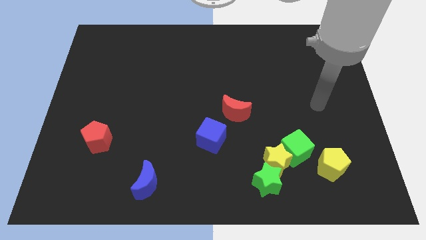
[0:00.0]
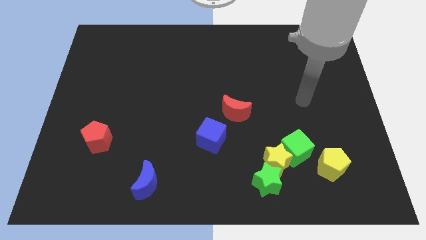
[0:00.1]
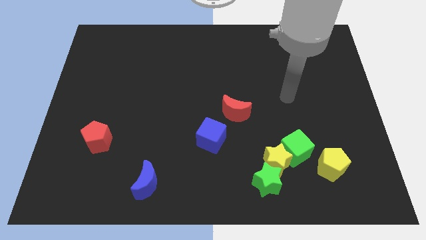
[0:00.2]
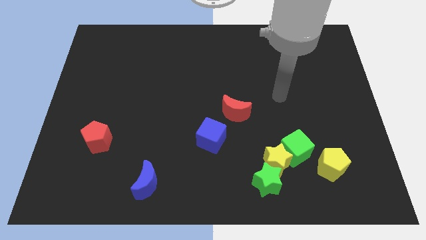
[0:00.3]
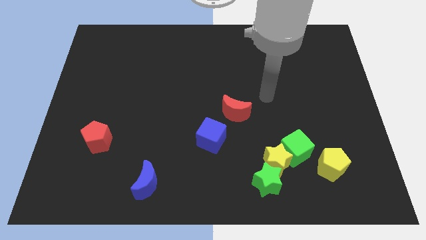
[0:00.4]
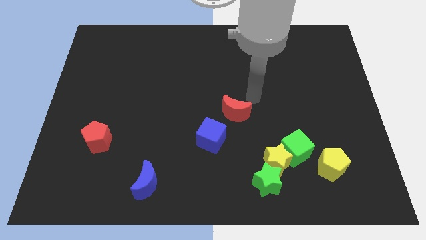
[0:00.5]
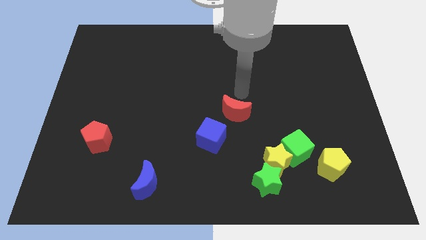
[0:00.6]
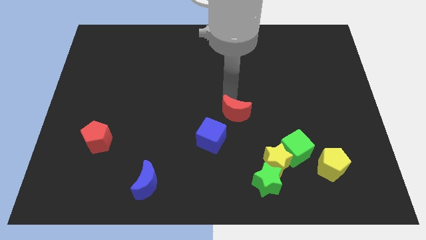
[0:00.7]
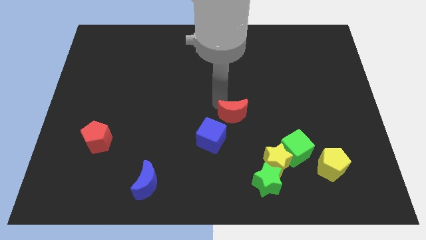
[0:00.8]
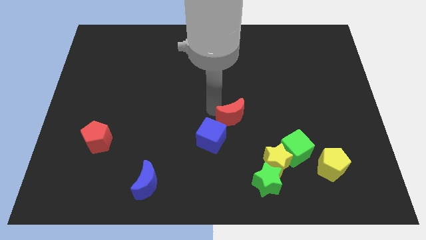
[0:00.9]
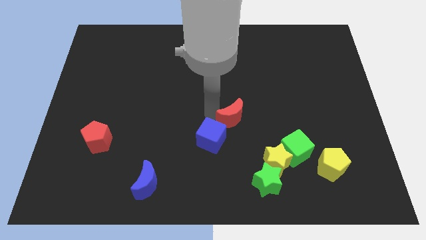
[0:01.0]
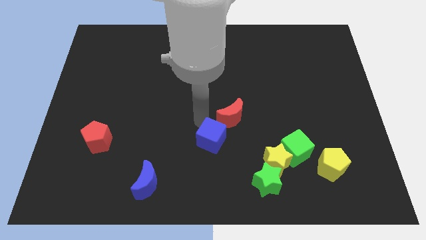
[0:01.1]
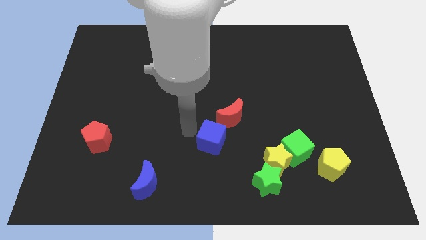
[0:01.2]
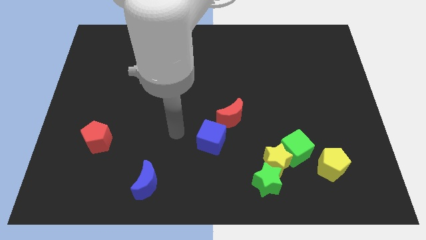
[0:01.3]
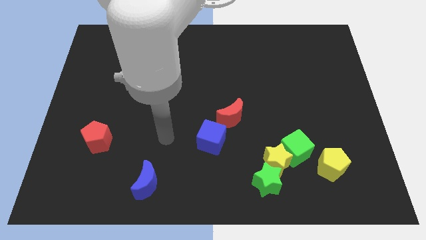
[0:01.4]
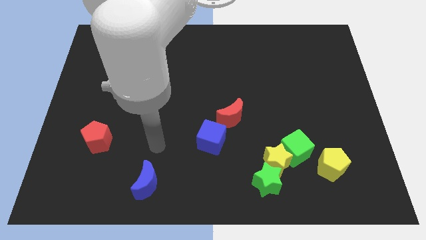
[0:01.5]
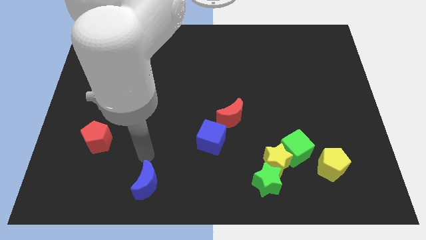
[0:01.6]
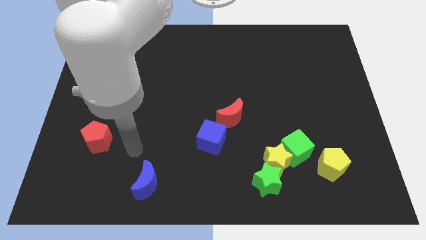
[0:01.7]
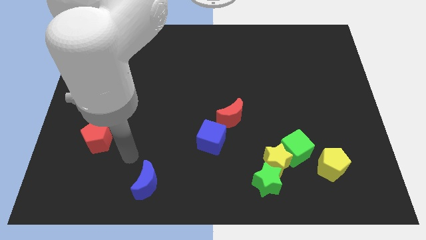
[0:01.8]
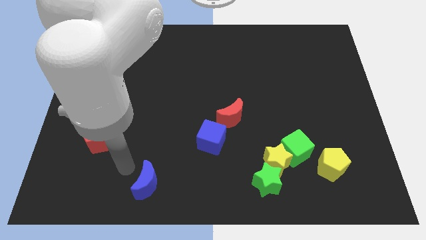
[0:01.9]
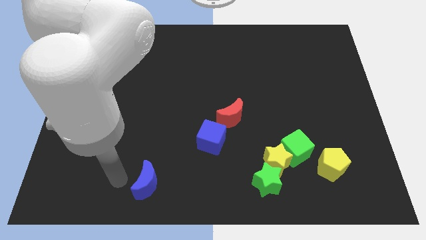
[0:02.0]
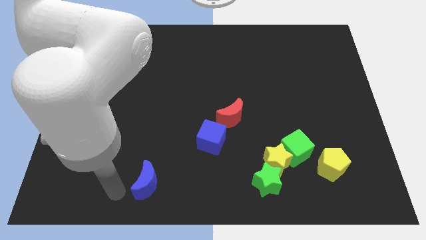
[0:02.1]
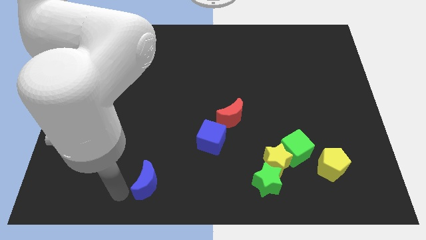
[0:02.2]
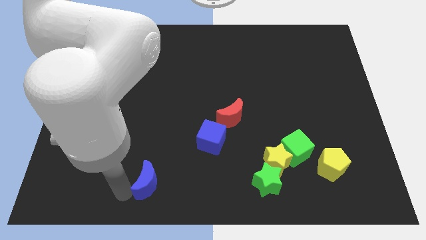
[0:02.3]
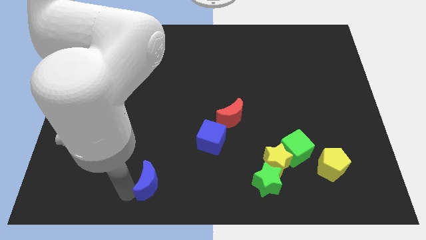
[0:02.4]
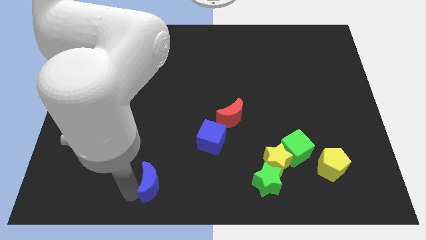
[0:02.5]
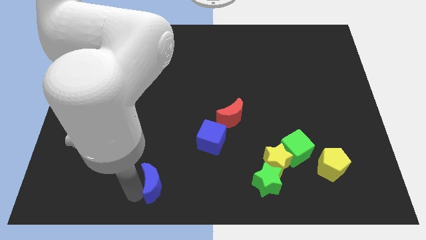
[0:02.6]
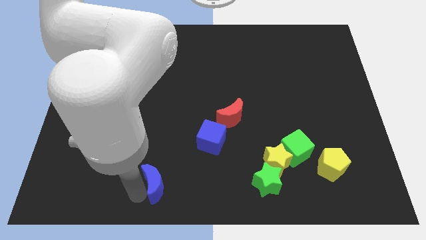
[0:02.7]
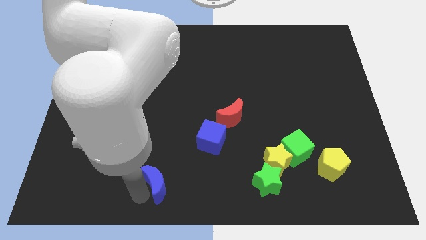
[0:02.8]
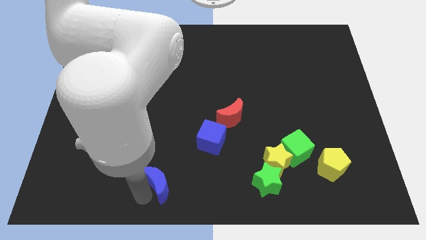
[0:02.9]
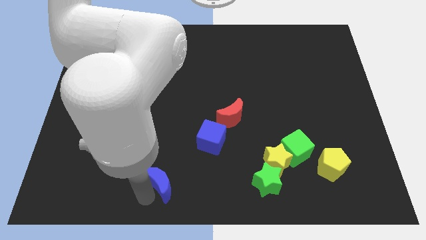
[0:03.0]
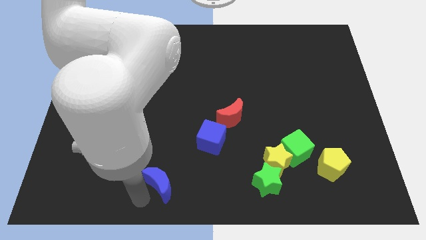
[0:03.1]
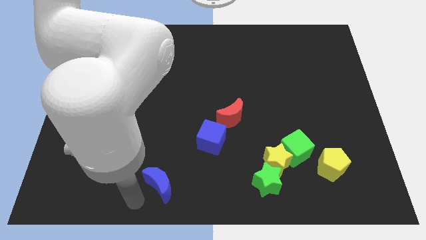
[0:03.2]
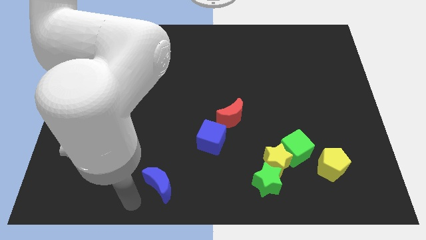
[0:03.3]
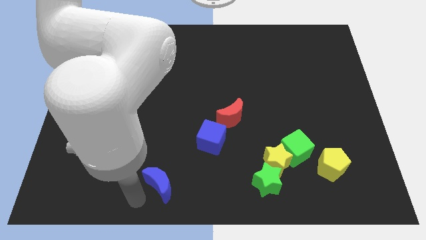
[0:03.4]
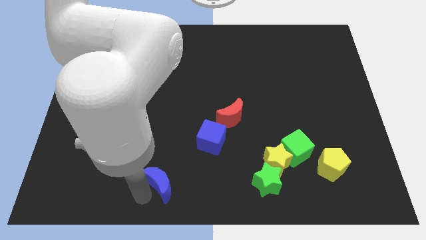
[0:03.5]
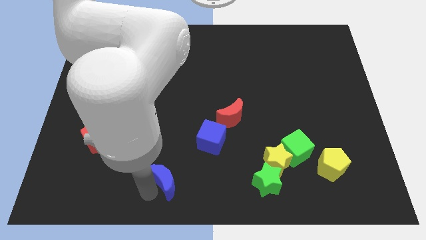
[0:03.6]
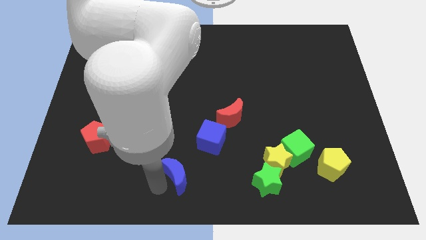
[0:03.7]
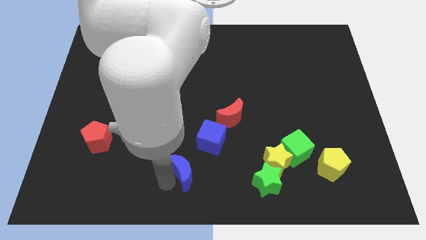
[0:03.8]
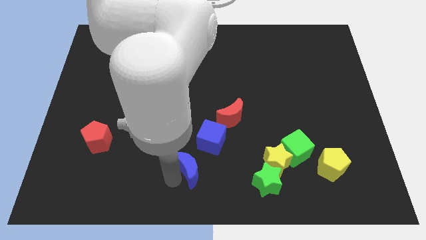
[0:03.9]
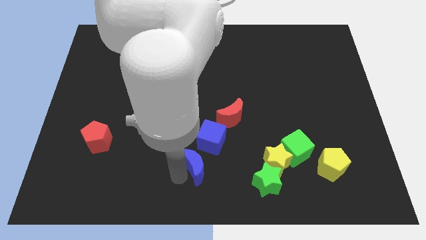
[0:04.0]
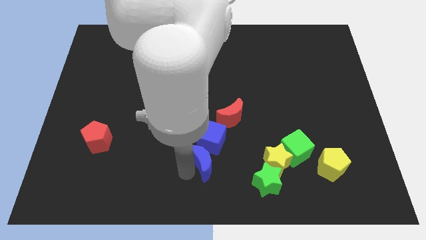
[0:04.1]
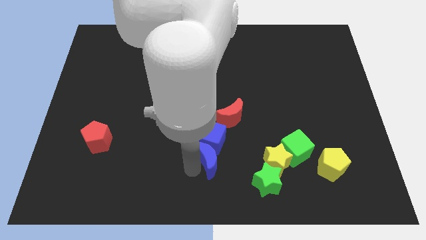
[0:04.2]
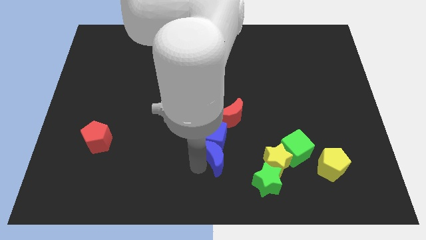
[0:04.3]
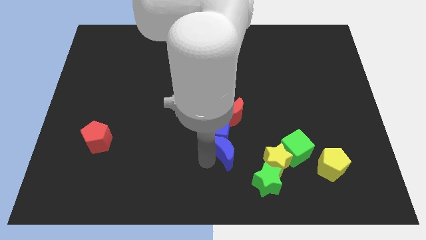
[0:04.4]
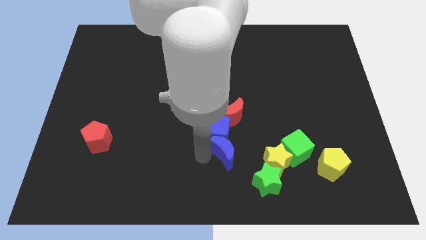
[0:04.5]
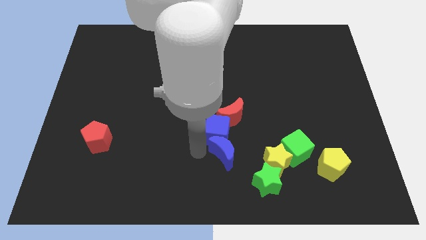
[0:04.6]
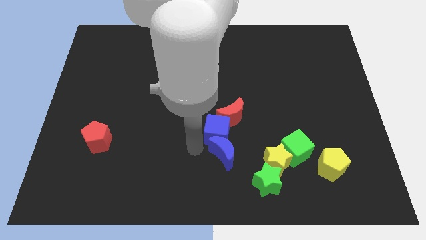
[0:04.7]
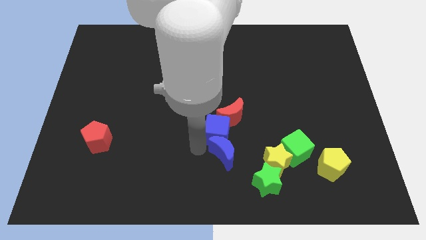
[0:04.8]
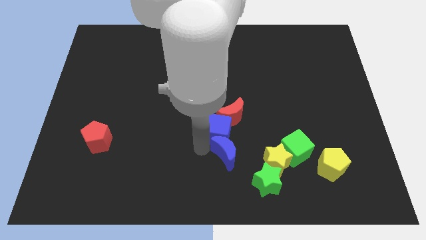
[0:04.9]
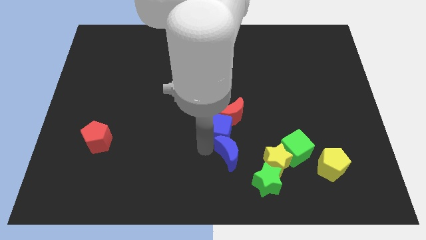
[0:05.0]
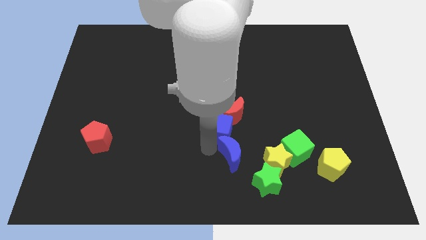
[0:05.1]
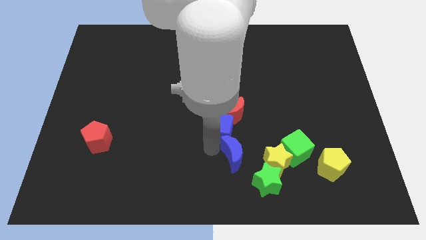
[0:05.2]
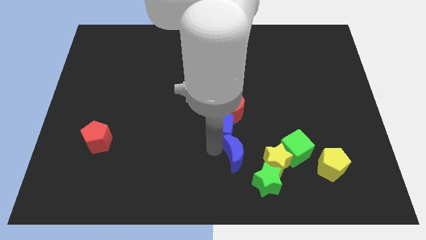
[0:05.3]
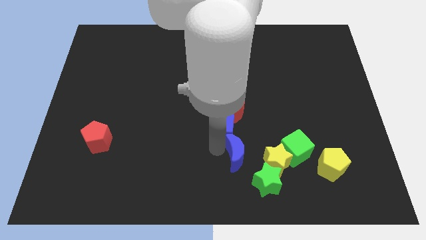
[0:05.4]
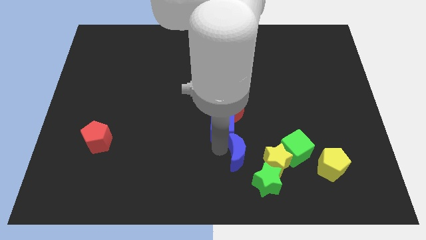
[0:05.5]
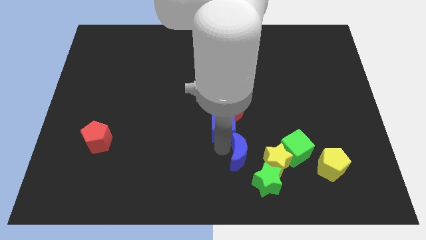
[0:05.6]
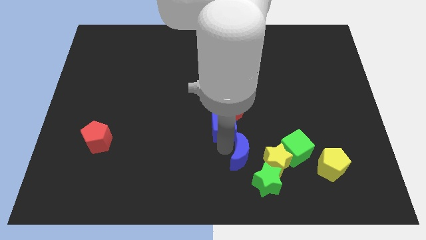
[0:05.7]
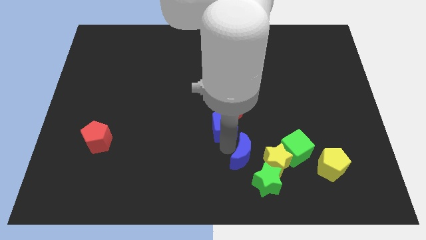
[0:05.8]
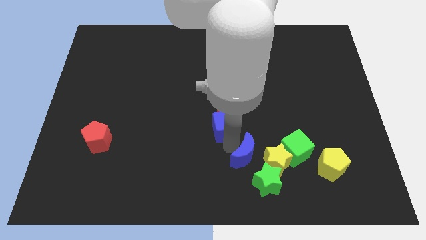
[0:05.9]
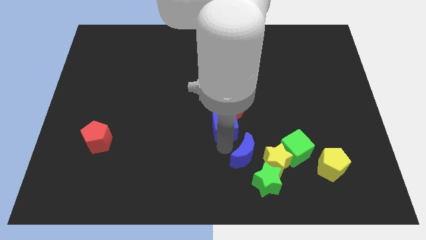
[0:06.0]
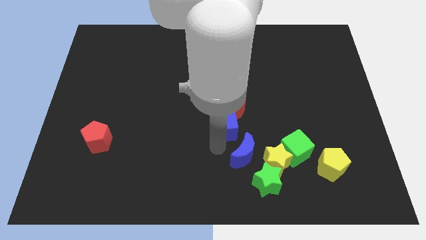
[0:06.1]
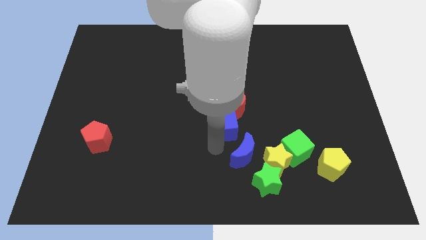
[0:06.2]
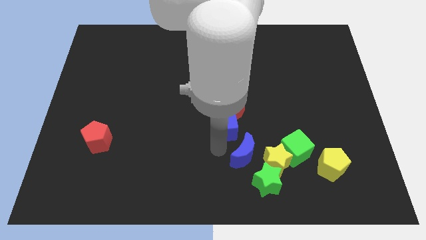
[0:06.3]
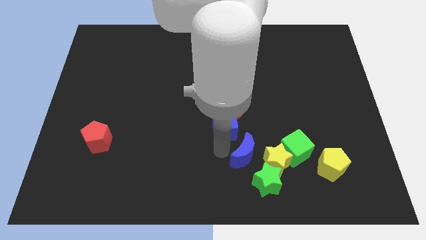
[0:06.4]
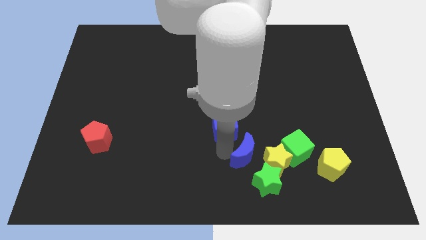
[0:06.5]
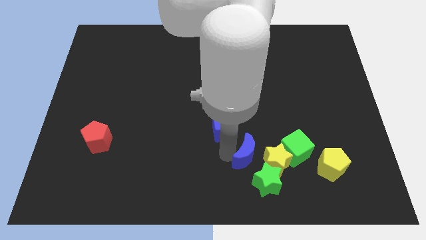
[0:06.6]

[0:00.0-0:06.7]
slide the blue moon towards the yellow star

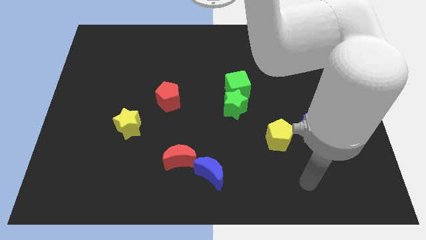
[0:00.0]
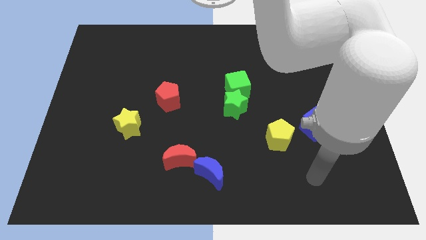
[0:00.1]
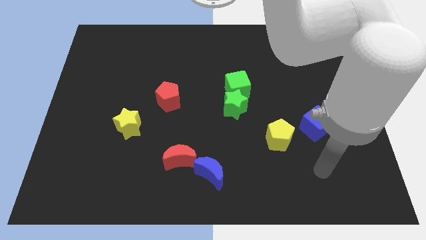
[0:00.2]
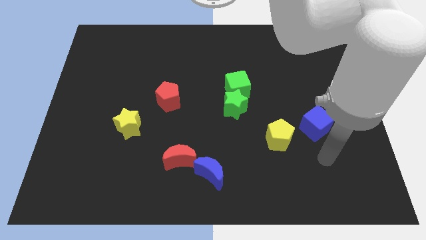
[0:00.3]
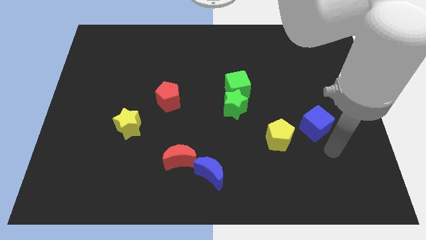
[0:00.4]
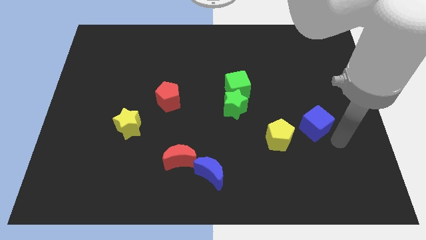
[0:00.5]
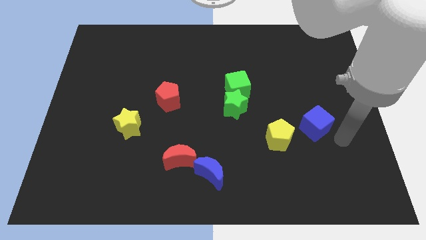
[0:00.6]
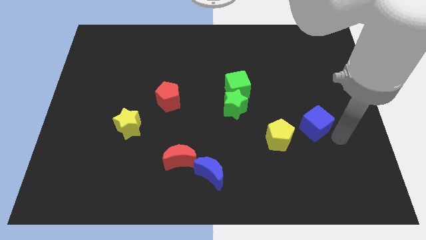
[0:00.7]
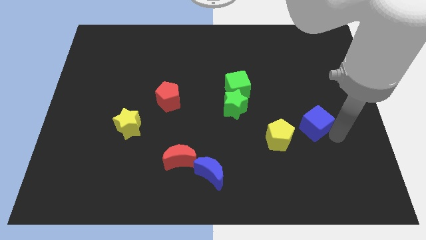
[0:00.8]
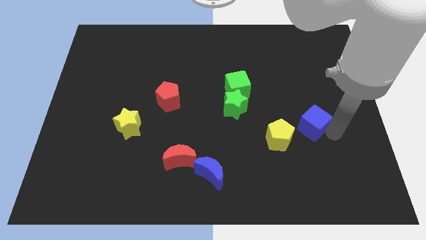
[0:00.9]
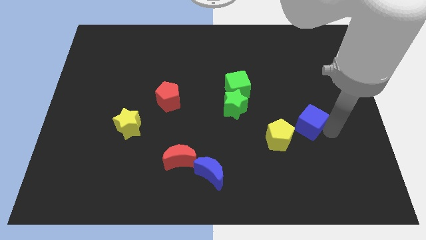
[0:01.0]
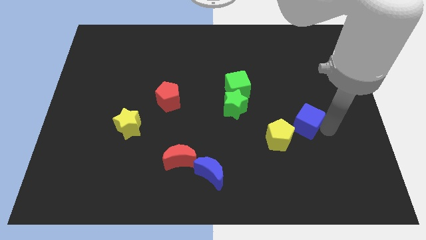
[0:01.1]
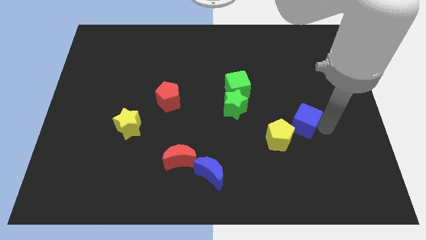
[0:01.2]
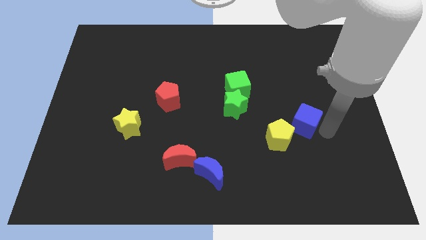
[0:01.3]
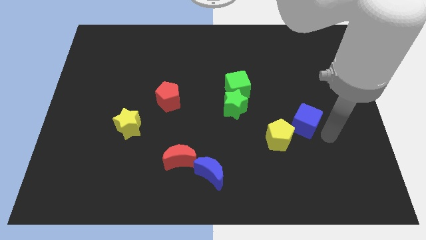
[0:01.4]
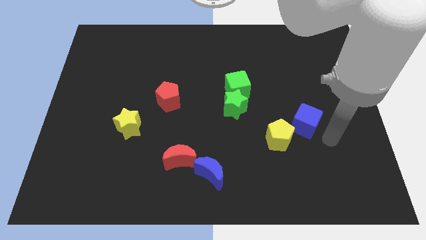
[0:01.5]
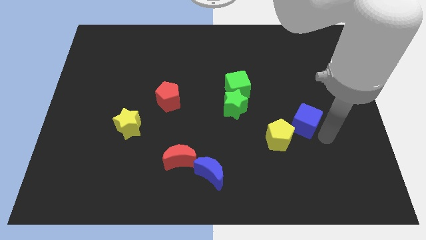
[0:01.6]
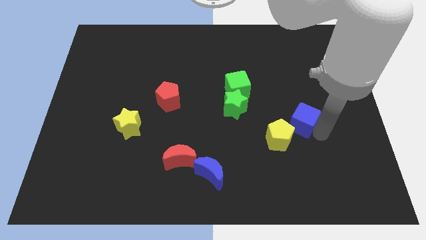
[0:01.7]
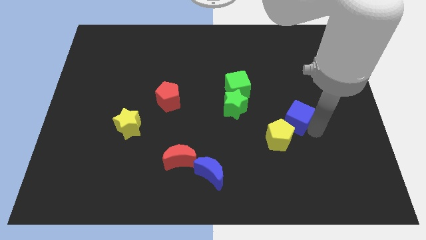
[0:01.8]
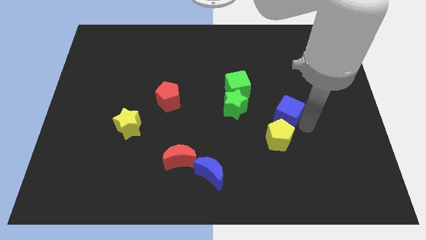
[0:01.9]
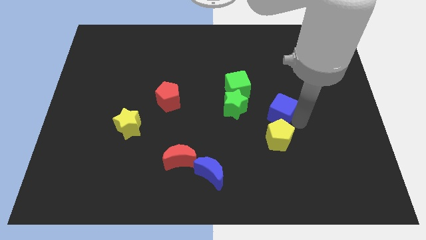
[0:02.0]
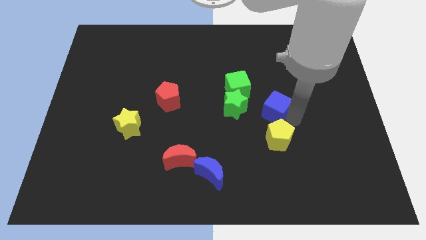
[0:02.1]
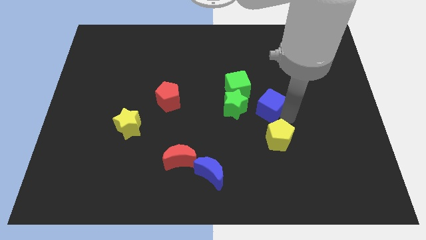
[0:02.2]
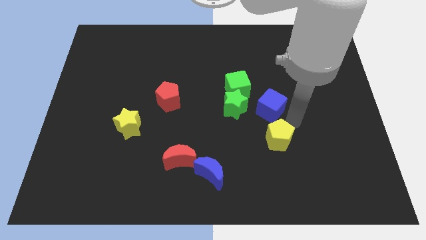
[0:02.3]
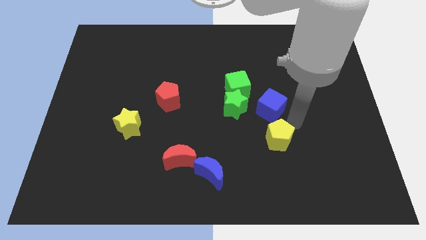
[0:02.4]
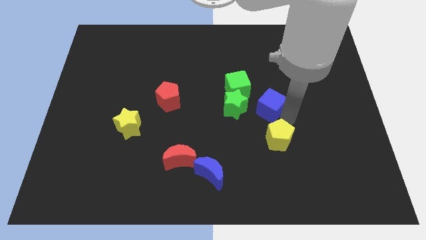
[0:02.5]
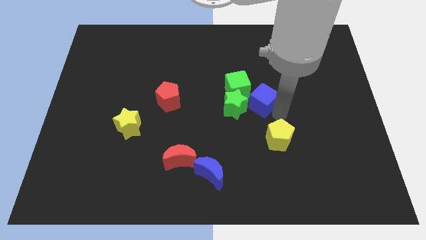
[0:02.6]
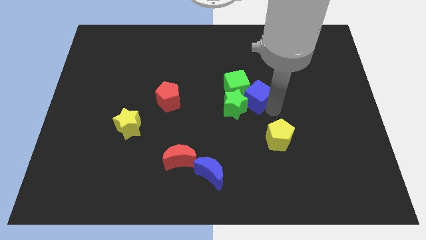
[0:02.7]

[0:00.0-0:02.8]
slide the blue cube next to the green cube
